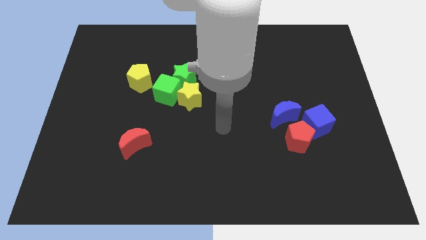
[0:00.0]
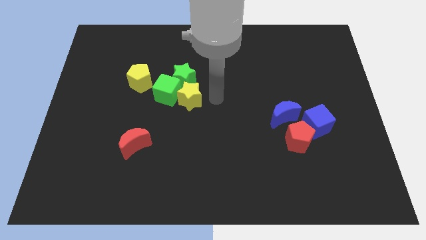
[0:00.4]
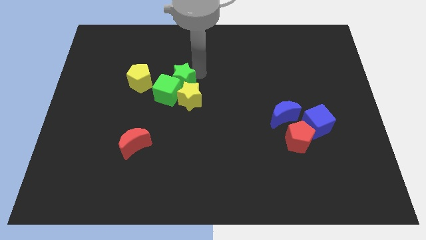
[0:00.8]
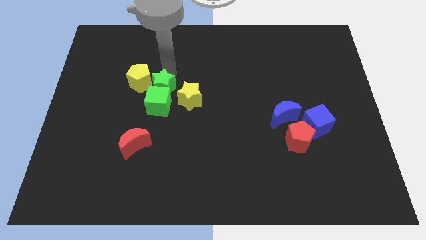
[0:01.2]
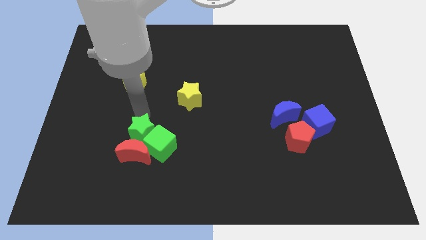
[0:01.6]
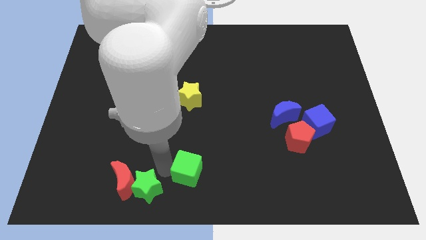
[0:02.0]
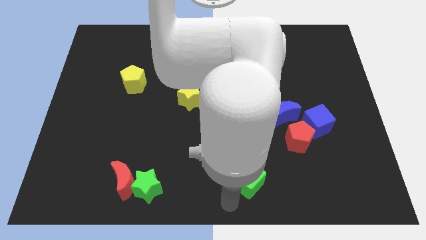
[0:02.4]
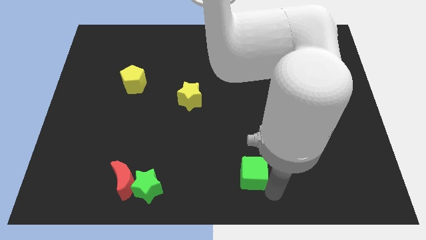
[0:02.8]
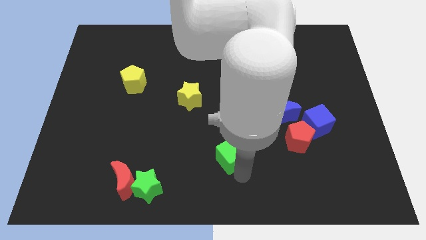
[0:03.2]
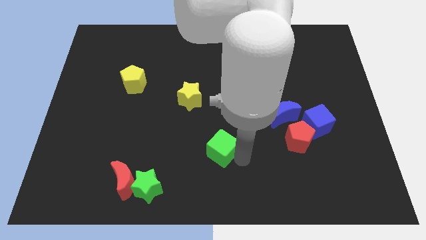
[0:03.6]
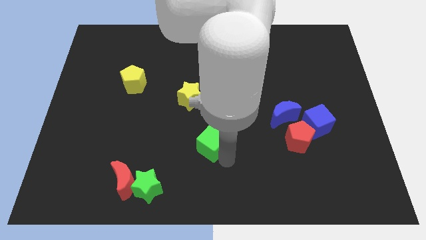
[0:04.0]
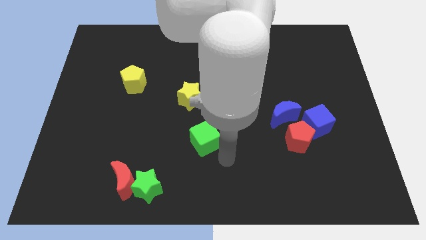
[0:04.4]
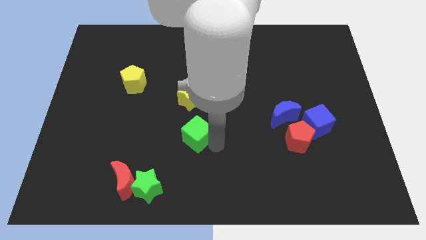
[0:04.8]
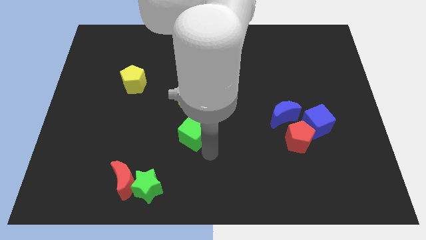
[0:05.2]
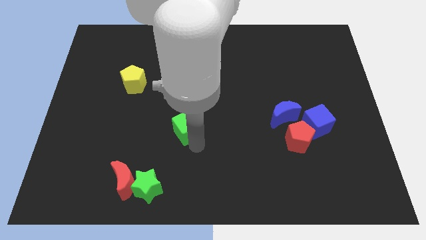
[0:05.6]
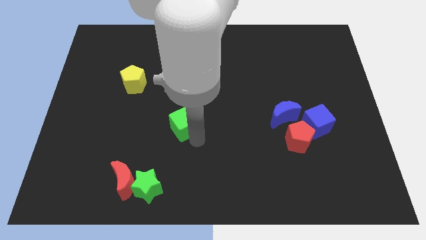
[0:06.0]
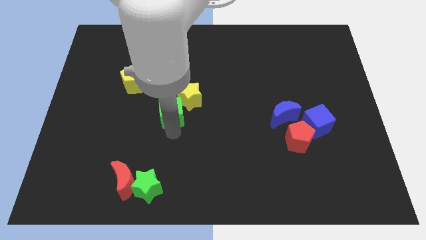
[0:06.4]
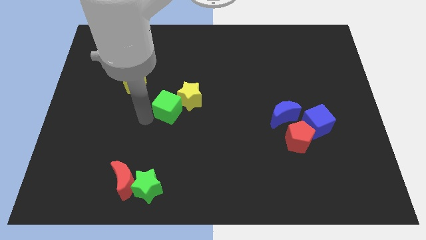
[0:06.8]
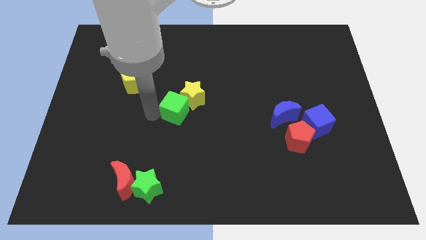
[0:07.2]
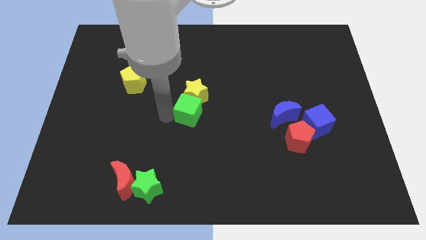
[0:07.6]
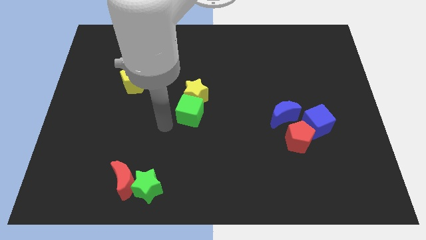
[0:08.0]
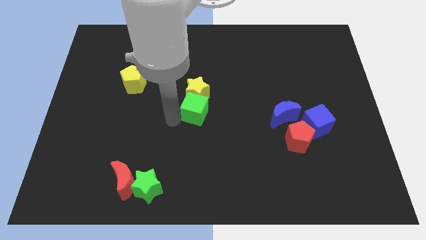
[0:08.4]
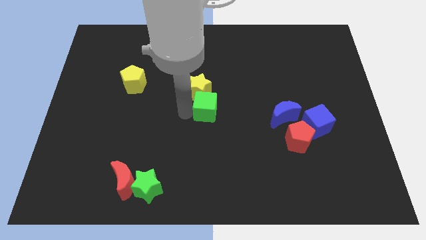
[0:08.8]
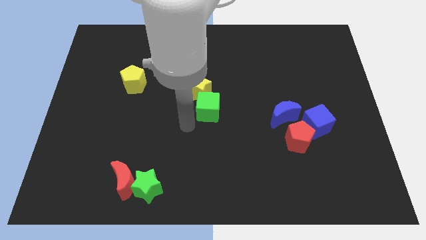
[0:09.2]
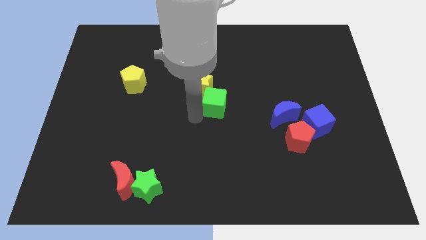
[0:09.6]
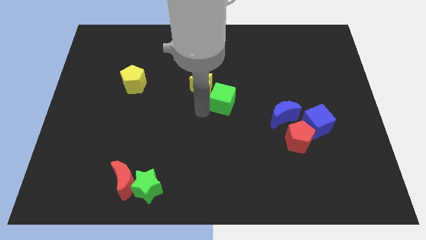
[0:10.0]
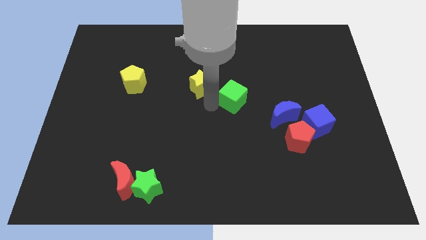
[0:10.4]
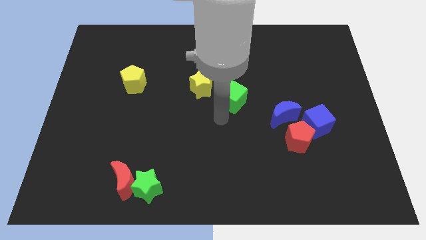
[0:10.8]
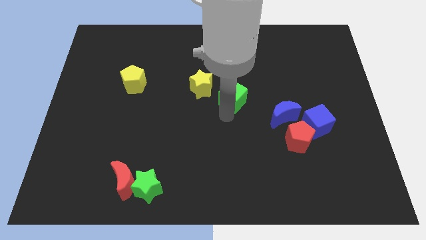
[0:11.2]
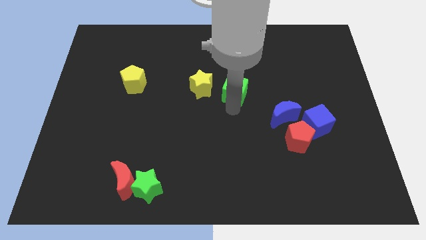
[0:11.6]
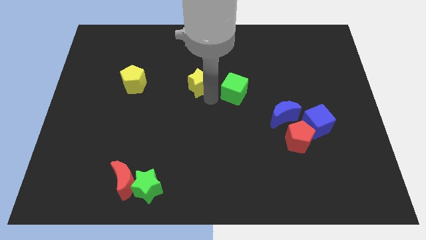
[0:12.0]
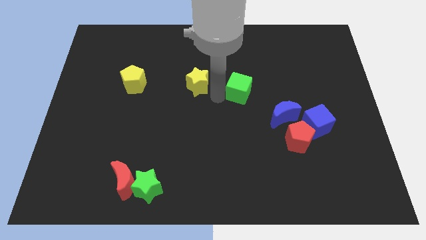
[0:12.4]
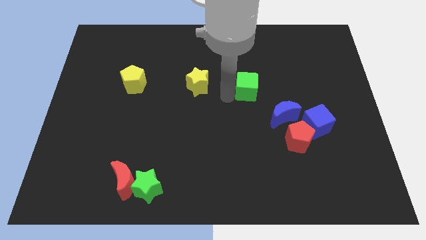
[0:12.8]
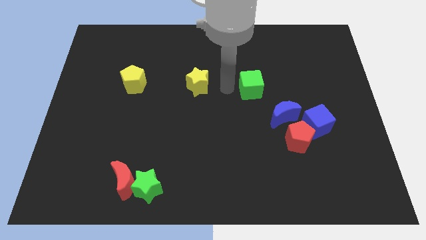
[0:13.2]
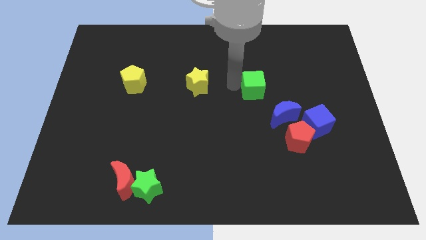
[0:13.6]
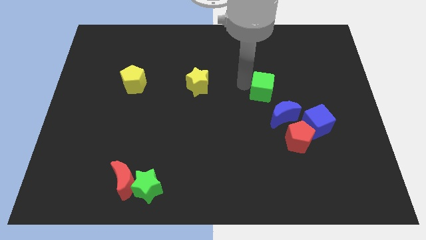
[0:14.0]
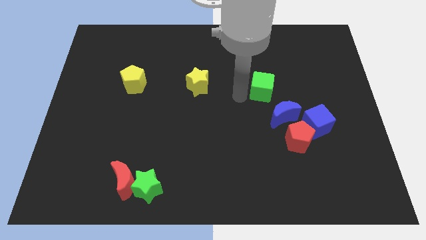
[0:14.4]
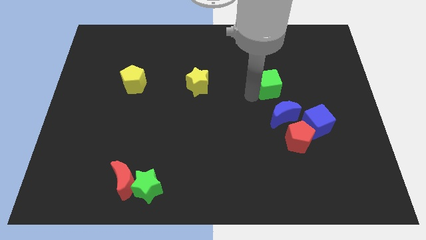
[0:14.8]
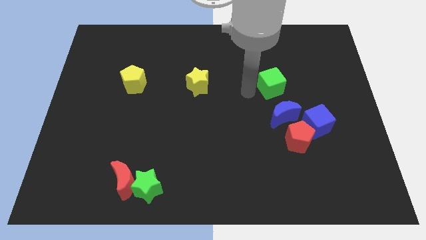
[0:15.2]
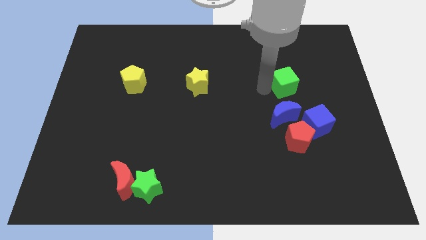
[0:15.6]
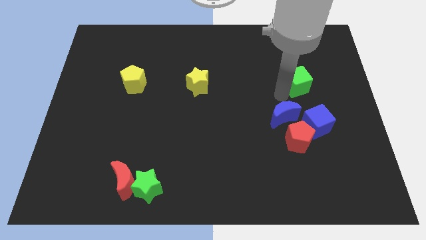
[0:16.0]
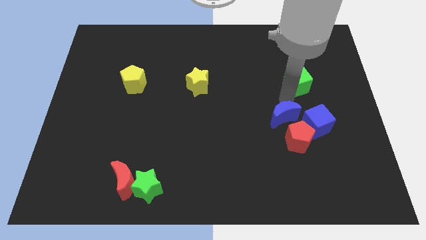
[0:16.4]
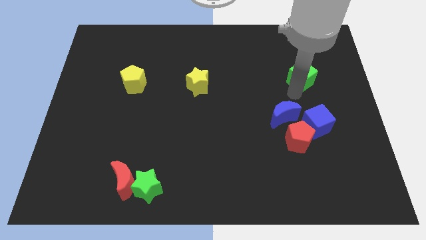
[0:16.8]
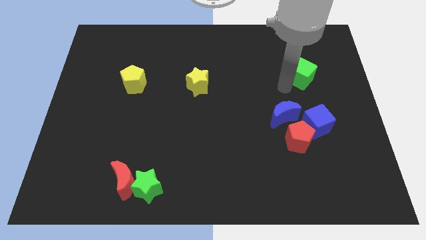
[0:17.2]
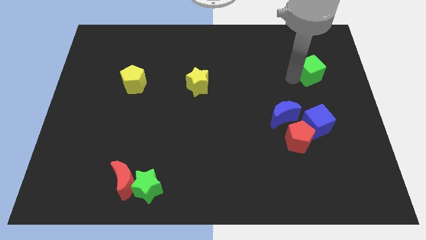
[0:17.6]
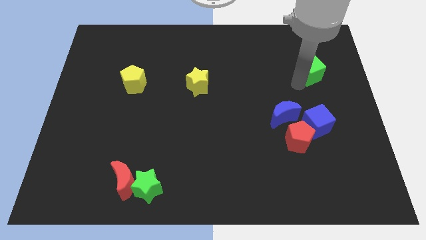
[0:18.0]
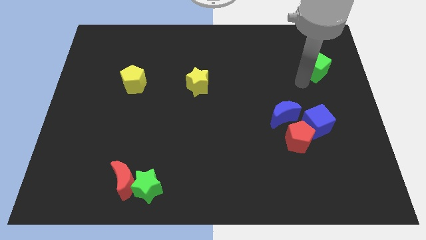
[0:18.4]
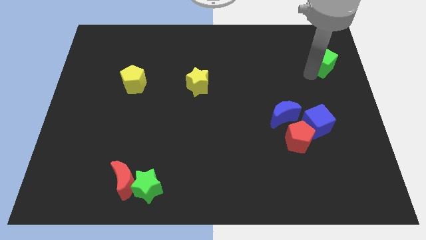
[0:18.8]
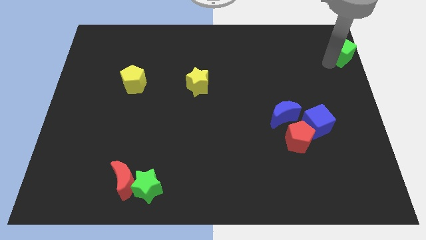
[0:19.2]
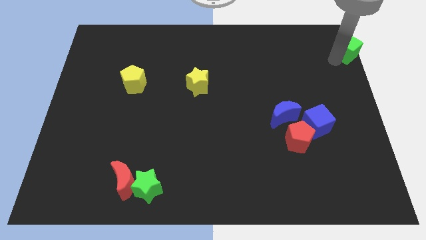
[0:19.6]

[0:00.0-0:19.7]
move the green cube to the top right corner

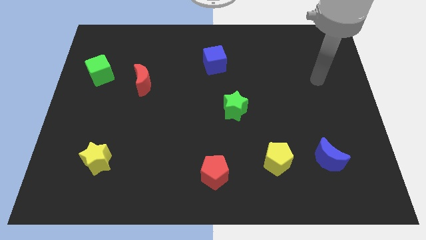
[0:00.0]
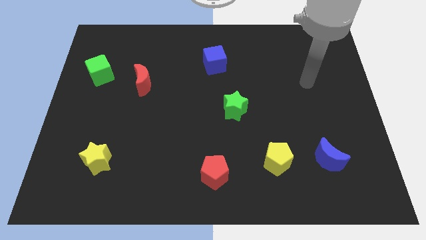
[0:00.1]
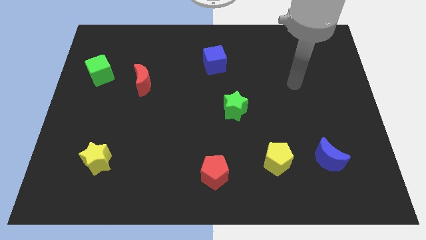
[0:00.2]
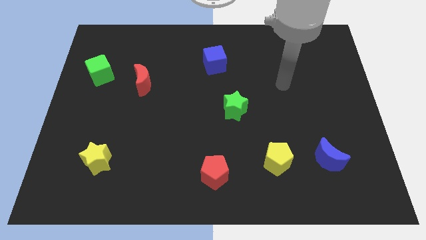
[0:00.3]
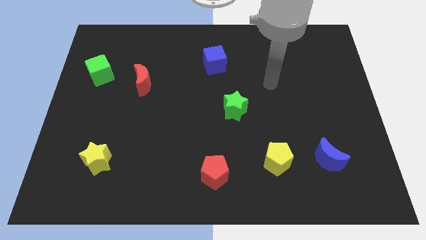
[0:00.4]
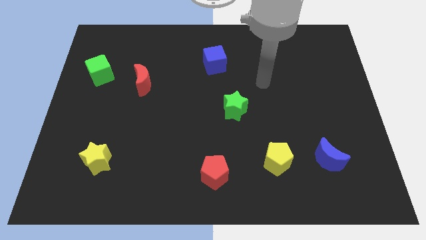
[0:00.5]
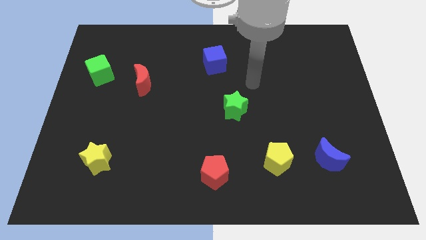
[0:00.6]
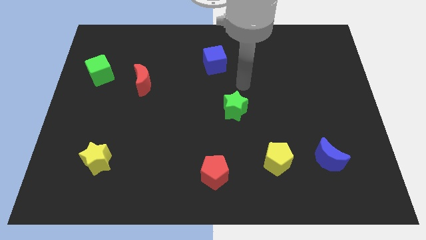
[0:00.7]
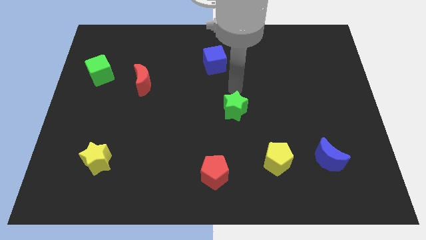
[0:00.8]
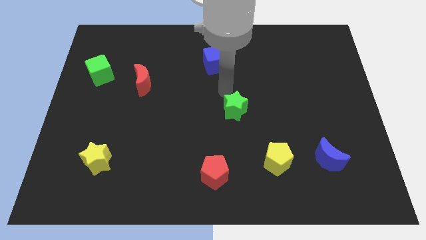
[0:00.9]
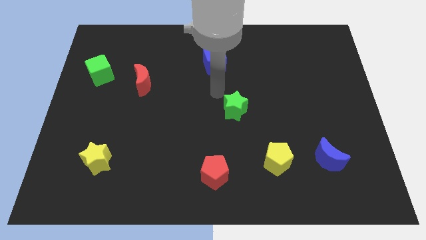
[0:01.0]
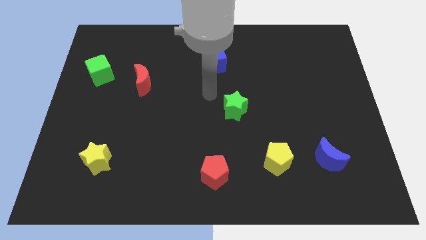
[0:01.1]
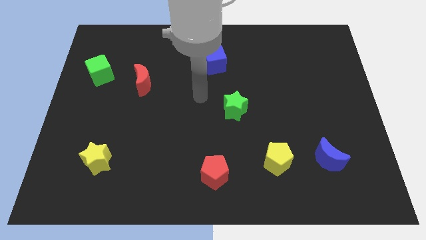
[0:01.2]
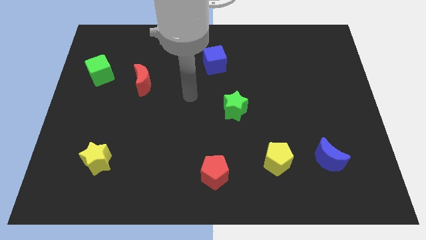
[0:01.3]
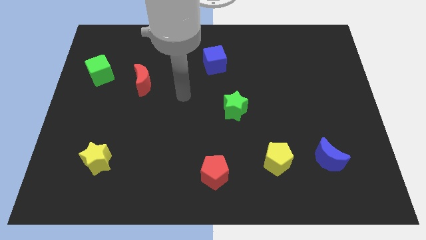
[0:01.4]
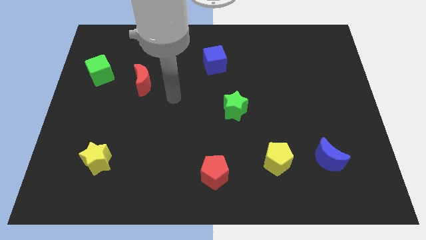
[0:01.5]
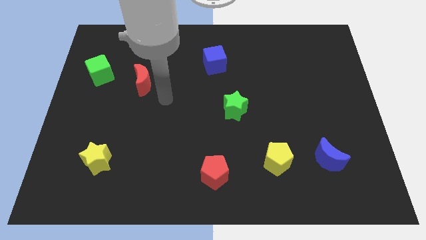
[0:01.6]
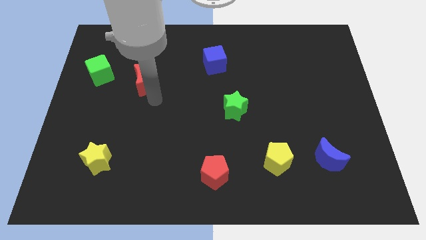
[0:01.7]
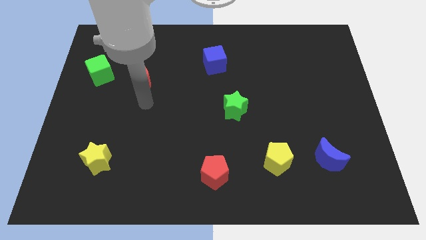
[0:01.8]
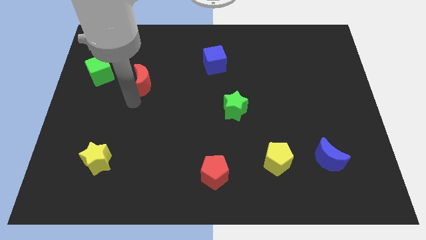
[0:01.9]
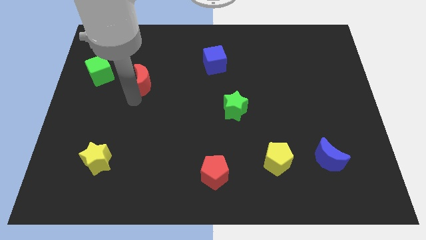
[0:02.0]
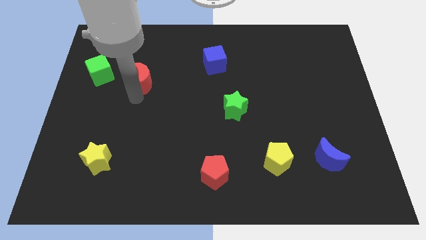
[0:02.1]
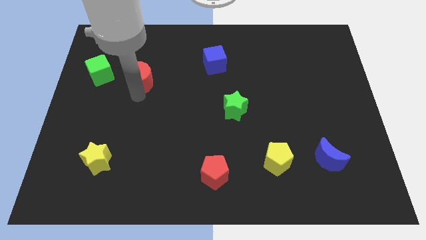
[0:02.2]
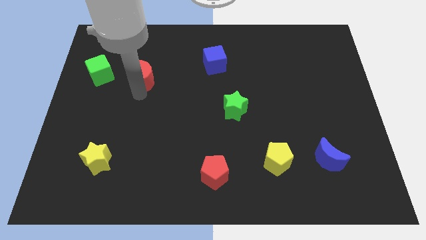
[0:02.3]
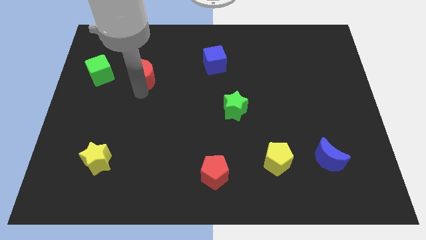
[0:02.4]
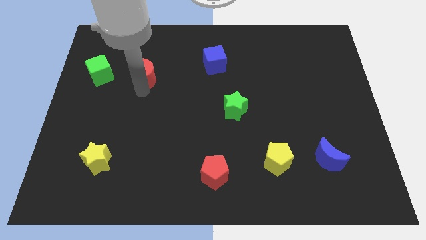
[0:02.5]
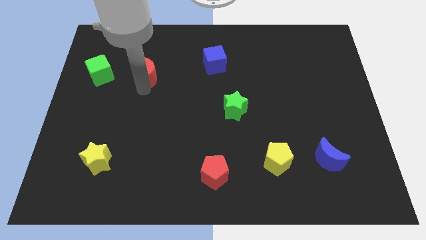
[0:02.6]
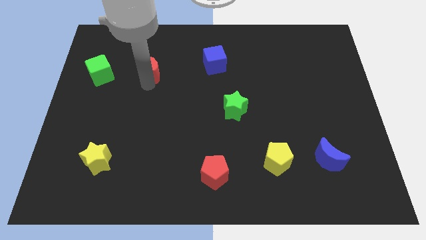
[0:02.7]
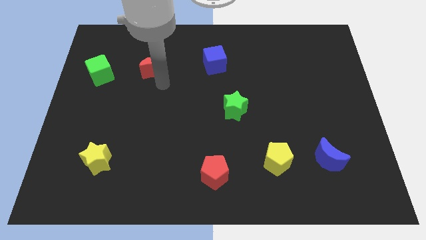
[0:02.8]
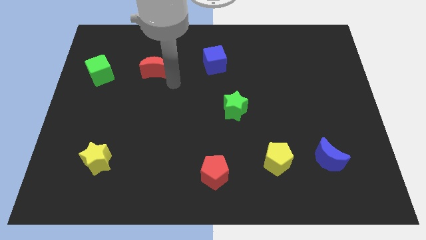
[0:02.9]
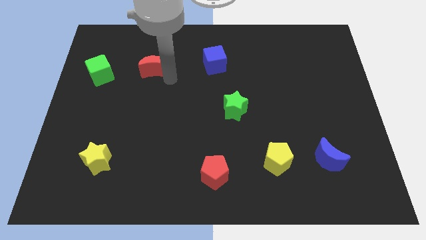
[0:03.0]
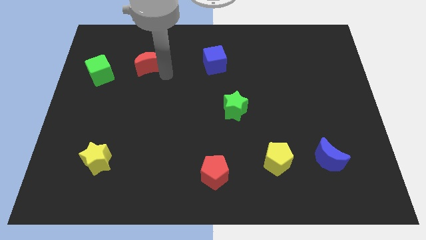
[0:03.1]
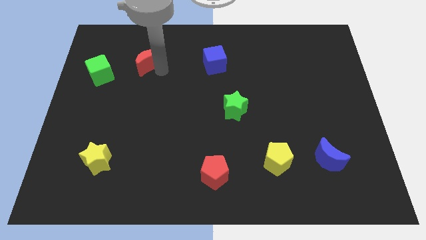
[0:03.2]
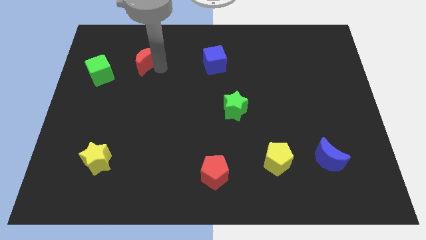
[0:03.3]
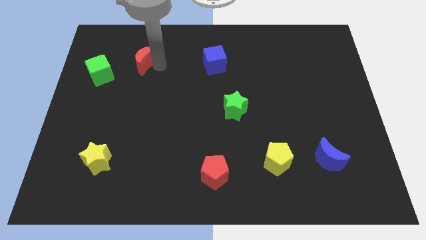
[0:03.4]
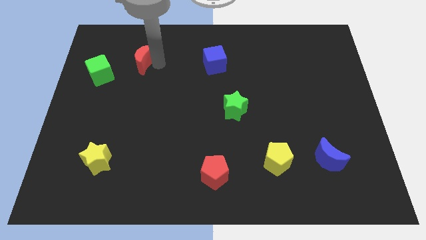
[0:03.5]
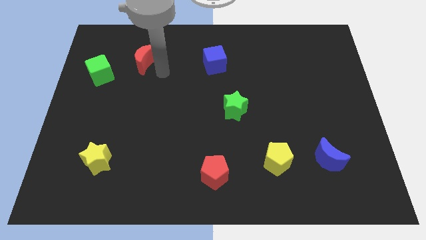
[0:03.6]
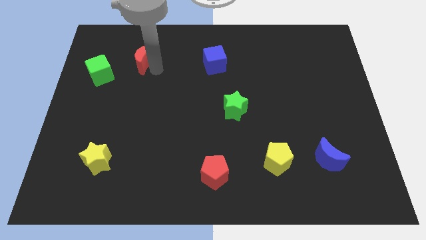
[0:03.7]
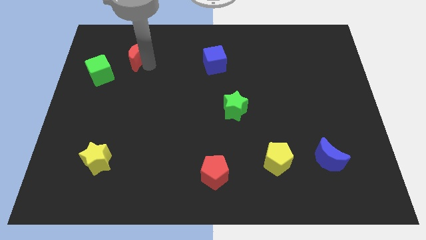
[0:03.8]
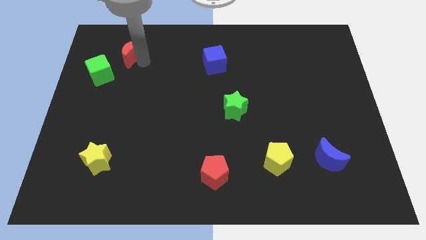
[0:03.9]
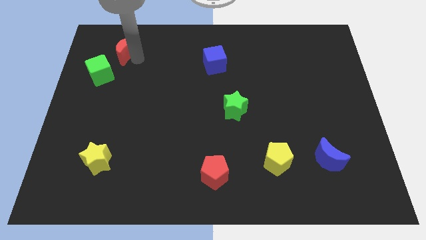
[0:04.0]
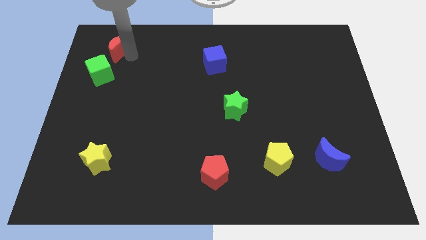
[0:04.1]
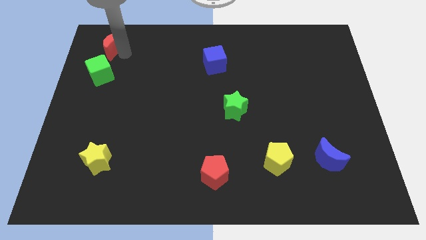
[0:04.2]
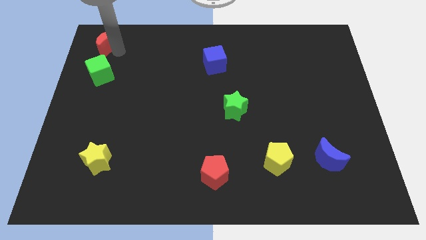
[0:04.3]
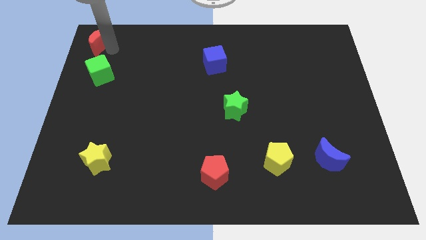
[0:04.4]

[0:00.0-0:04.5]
slide the red moon to the top left corner
